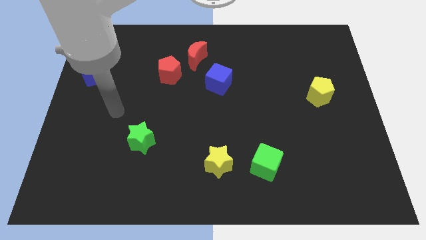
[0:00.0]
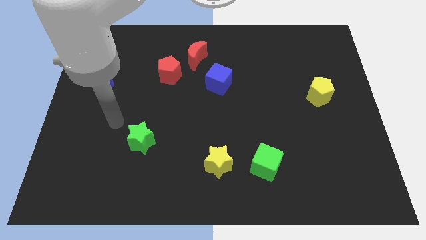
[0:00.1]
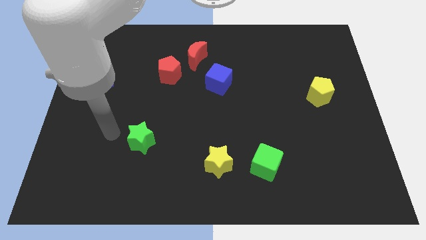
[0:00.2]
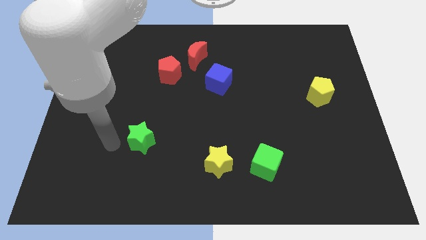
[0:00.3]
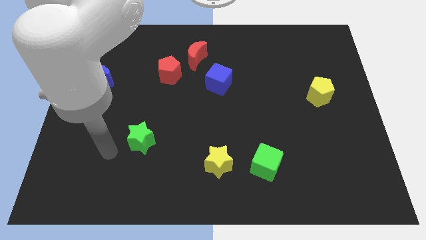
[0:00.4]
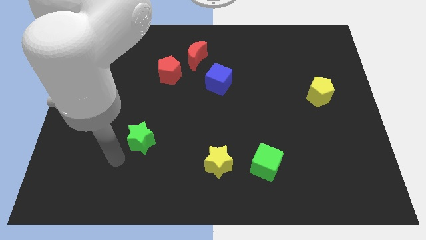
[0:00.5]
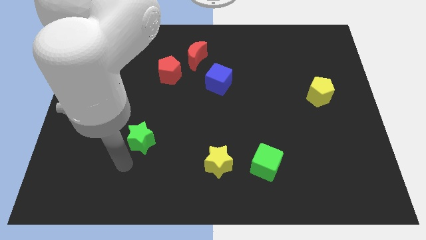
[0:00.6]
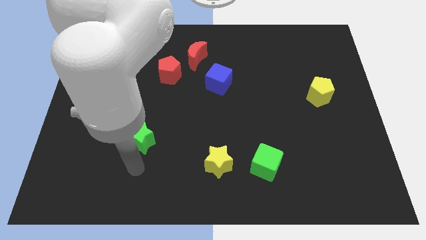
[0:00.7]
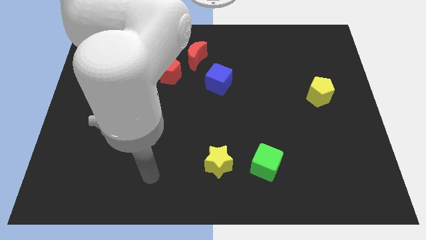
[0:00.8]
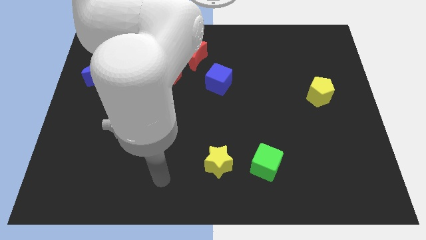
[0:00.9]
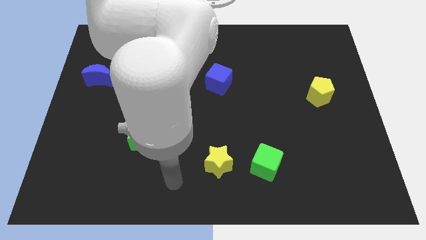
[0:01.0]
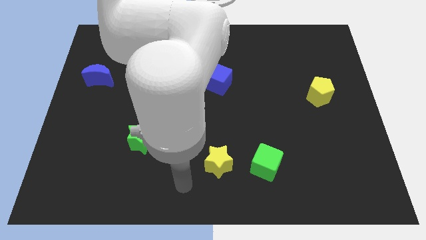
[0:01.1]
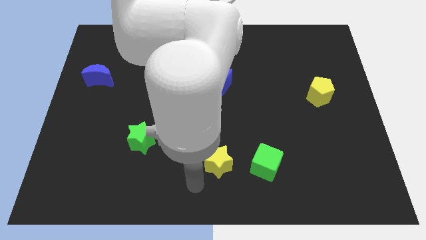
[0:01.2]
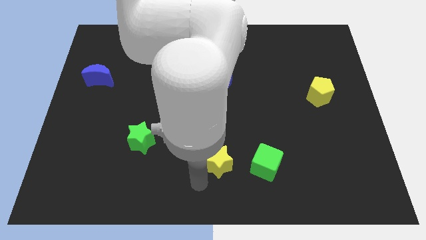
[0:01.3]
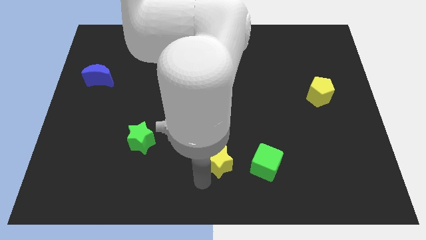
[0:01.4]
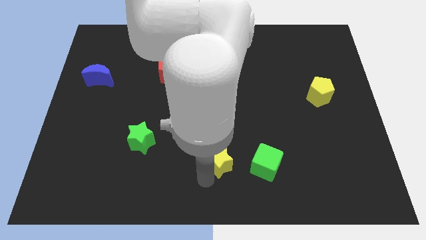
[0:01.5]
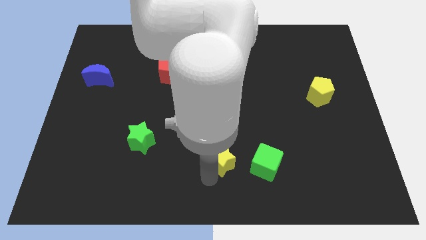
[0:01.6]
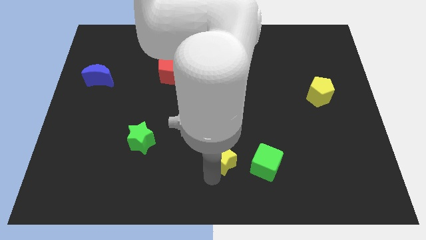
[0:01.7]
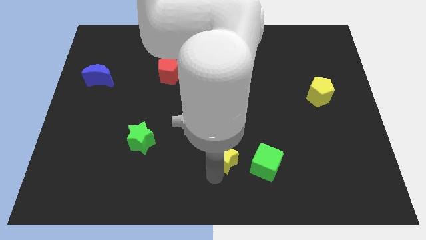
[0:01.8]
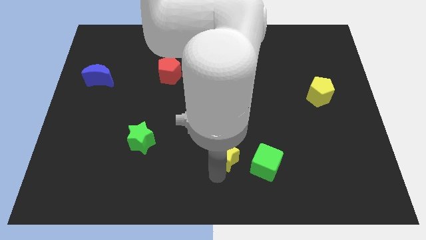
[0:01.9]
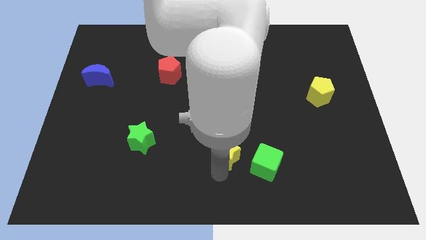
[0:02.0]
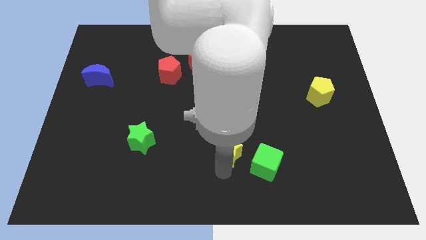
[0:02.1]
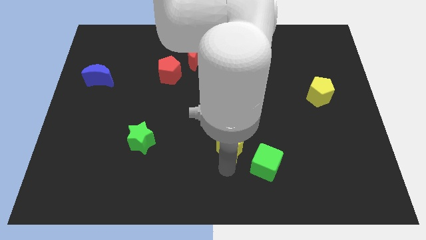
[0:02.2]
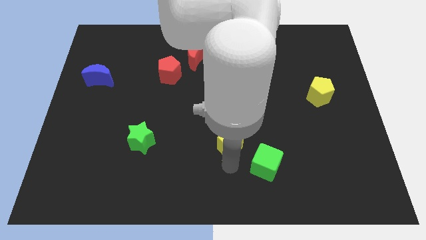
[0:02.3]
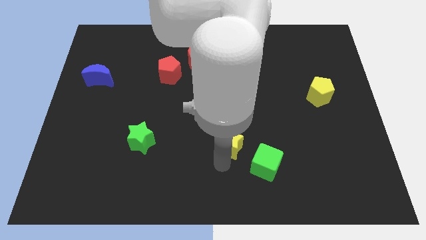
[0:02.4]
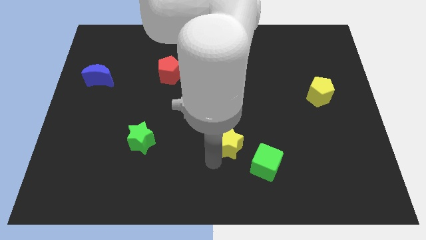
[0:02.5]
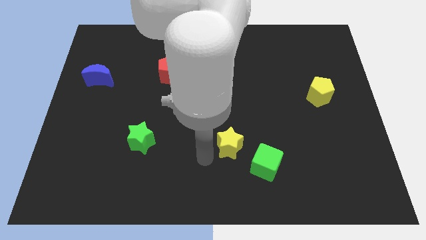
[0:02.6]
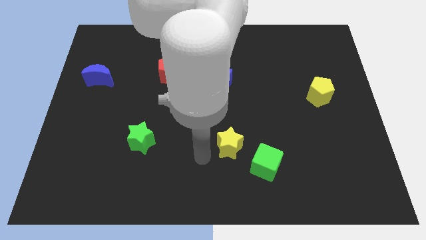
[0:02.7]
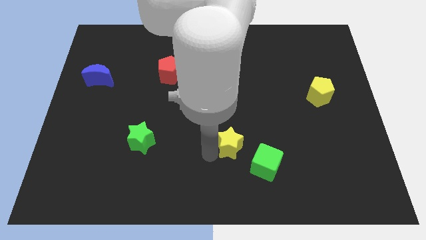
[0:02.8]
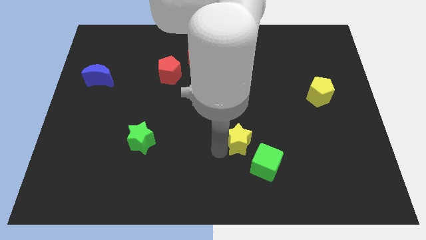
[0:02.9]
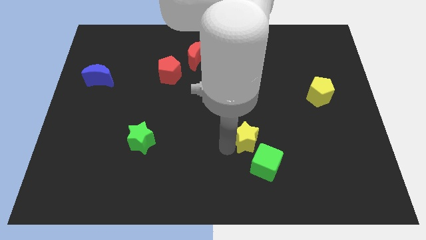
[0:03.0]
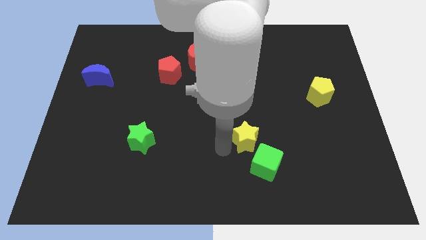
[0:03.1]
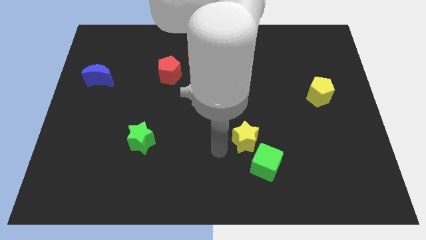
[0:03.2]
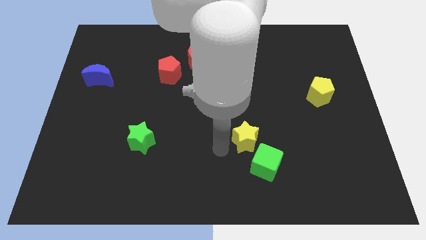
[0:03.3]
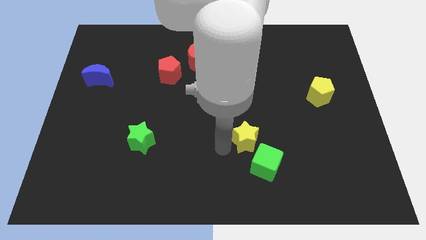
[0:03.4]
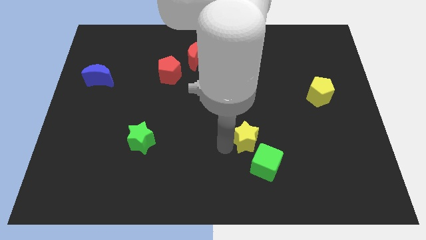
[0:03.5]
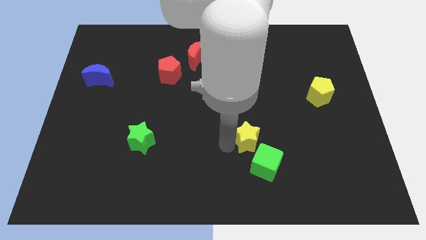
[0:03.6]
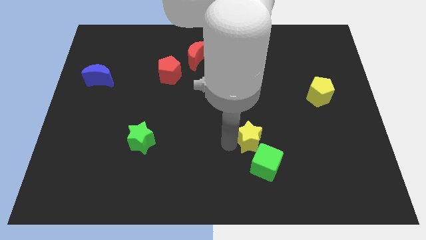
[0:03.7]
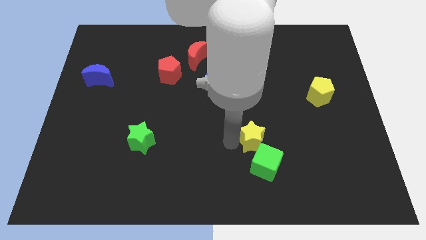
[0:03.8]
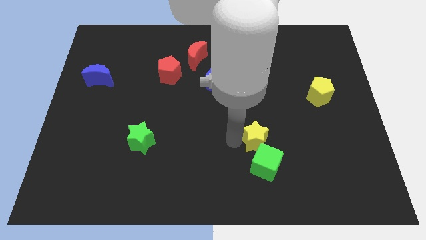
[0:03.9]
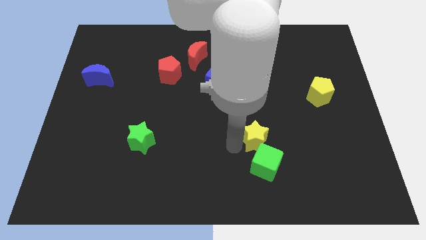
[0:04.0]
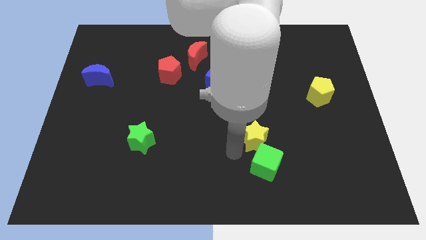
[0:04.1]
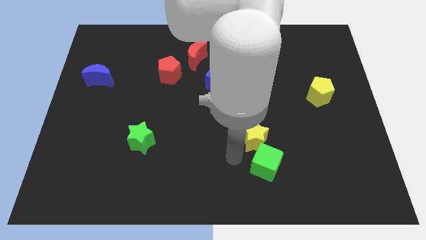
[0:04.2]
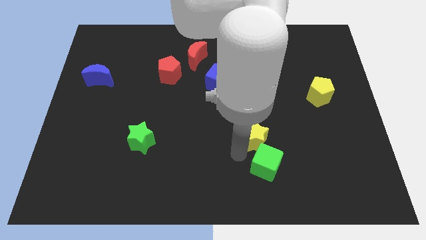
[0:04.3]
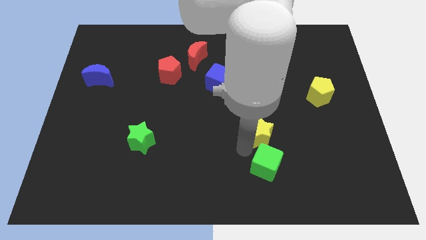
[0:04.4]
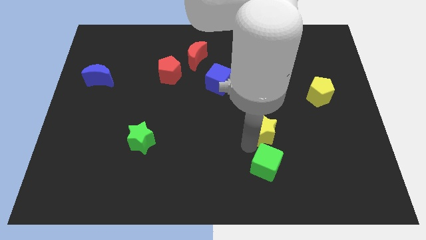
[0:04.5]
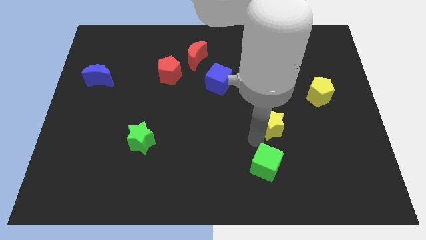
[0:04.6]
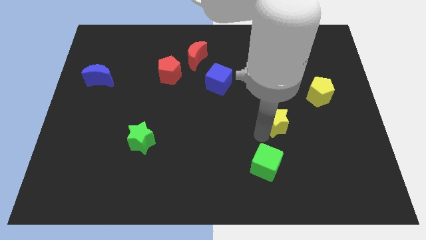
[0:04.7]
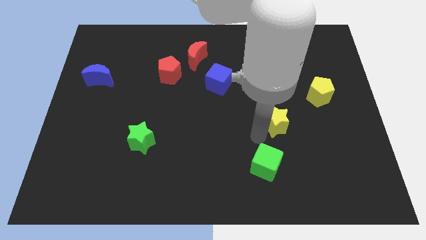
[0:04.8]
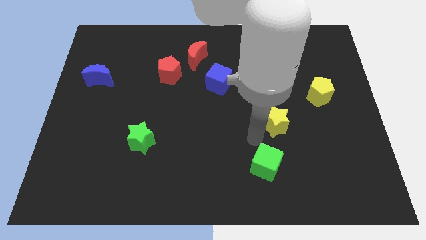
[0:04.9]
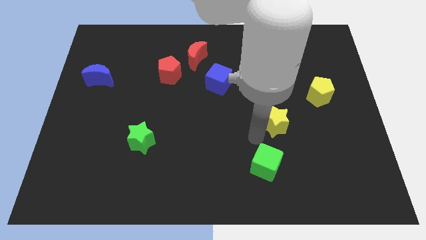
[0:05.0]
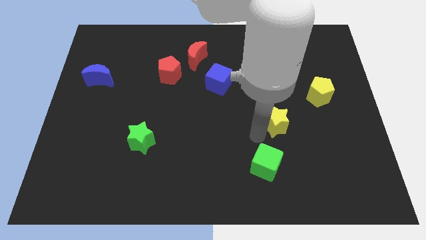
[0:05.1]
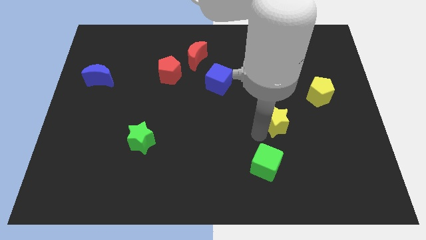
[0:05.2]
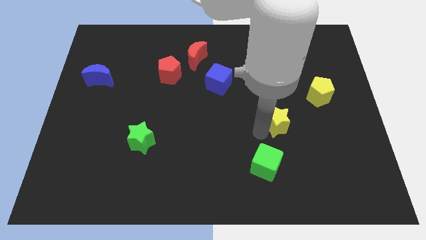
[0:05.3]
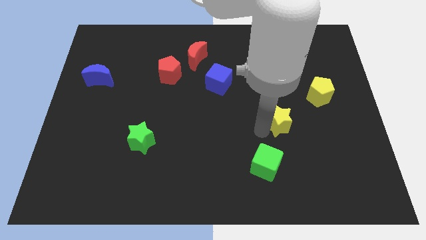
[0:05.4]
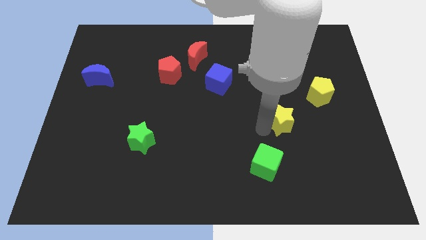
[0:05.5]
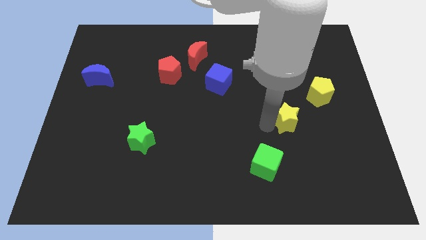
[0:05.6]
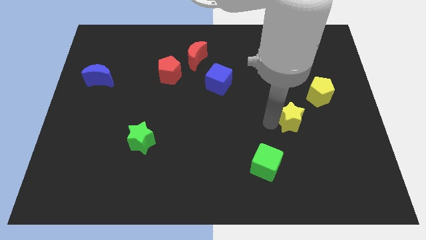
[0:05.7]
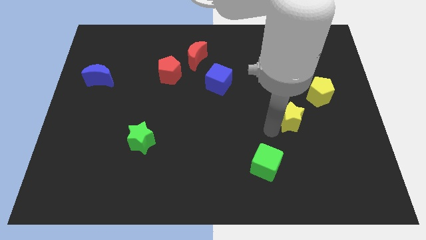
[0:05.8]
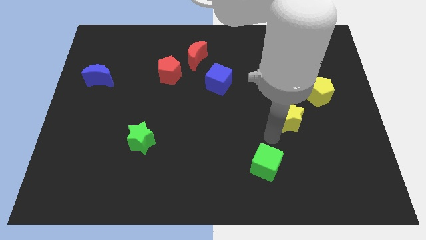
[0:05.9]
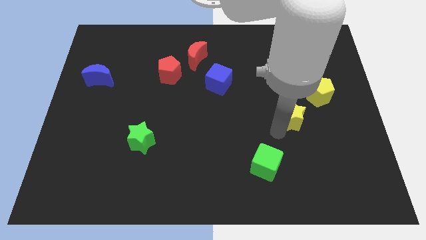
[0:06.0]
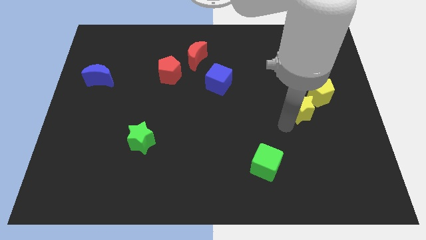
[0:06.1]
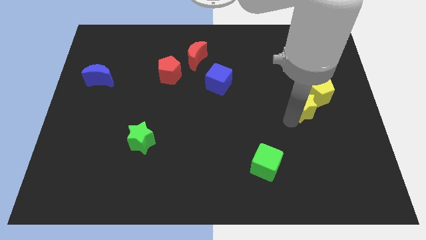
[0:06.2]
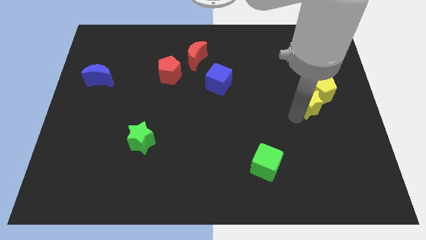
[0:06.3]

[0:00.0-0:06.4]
slide the yellow star close to the yellow pentagon

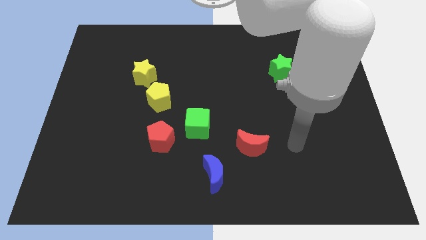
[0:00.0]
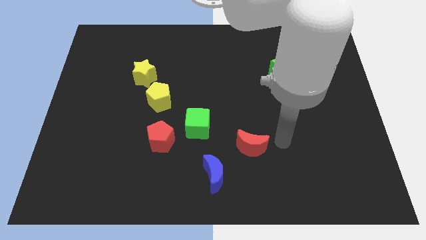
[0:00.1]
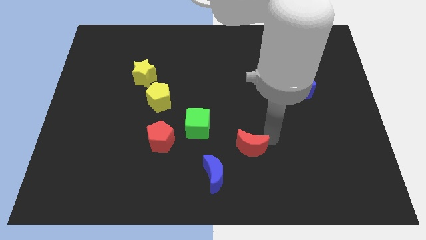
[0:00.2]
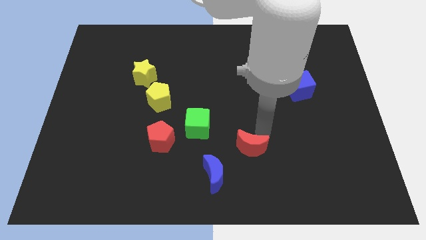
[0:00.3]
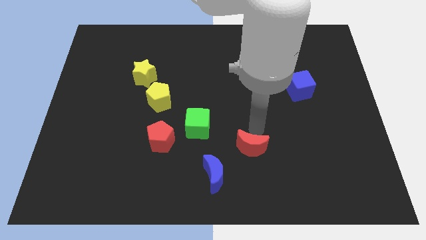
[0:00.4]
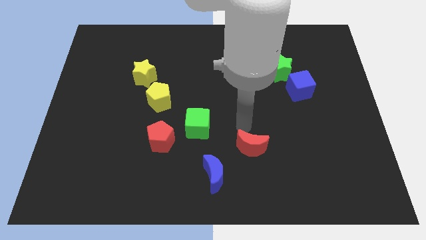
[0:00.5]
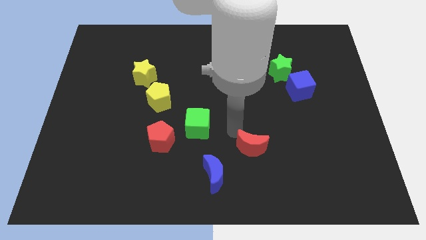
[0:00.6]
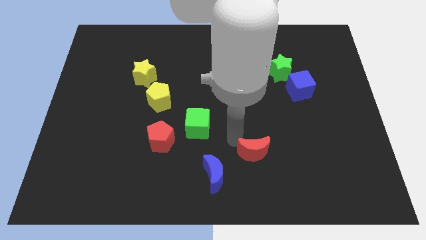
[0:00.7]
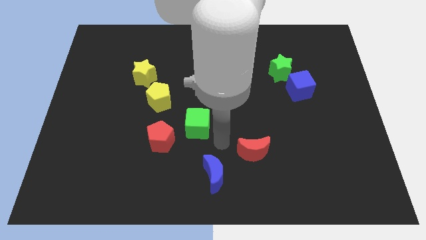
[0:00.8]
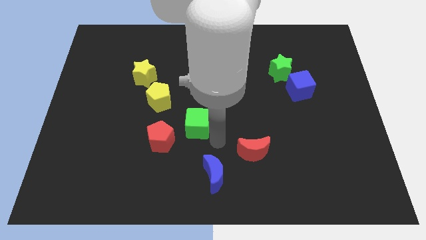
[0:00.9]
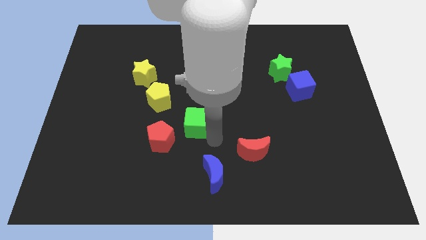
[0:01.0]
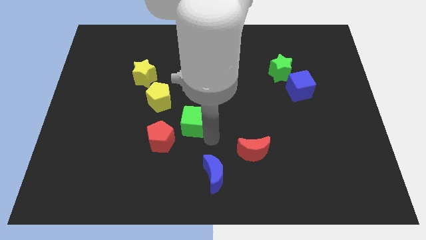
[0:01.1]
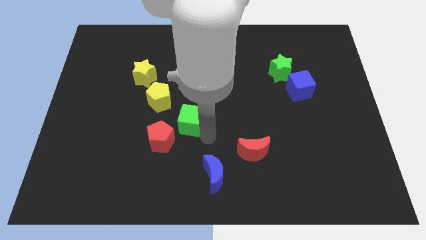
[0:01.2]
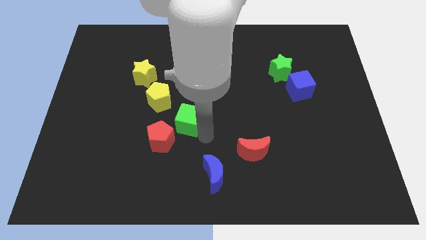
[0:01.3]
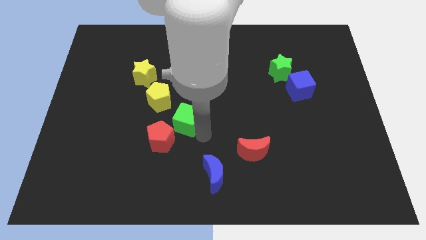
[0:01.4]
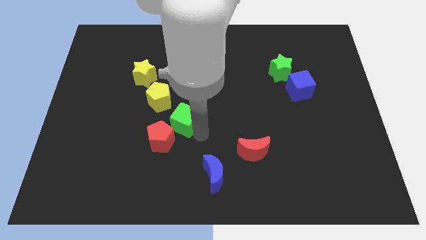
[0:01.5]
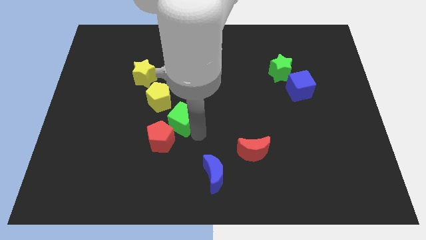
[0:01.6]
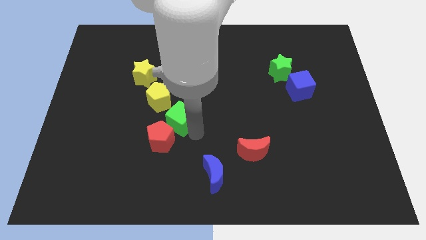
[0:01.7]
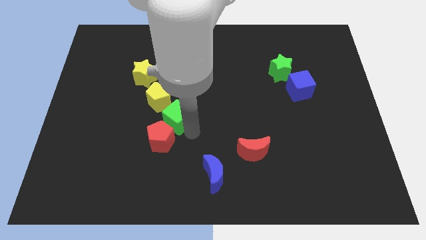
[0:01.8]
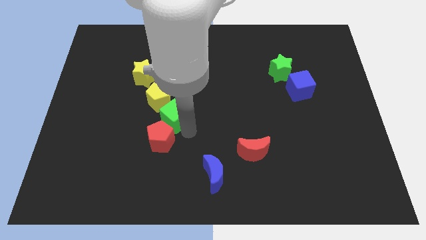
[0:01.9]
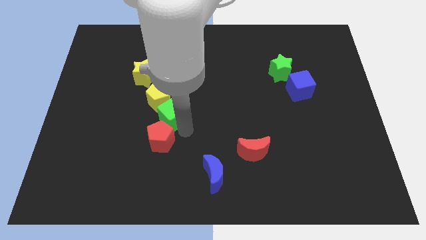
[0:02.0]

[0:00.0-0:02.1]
put the green cube next to the yellow pentagon
